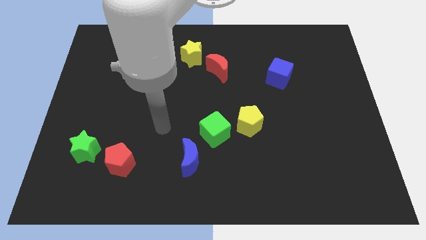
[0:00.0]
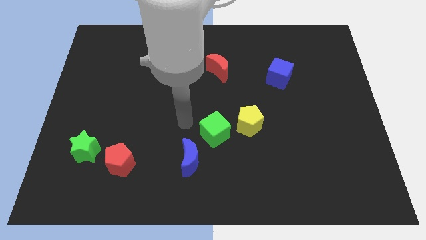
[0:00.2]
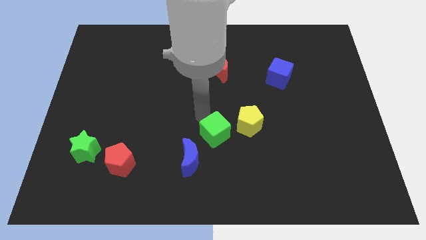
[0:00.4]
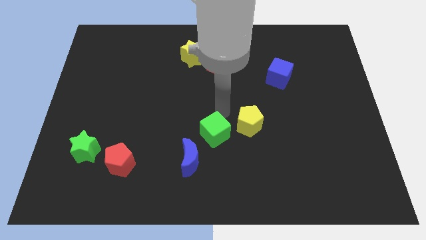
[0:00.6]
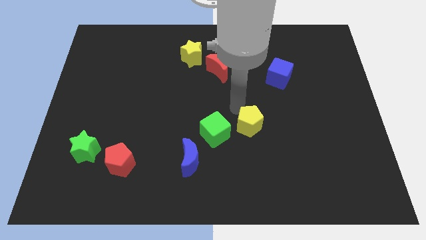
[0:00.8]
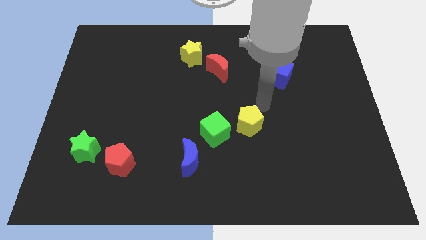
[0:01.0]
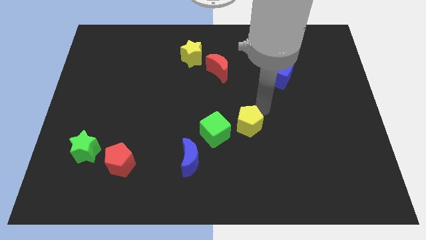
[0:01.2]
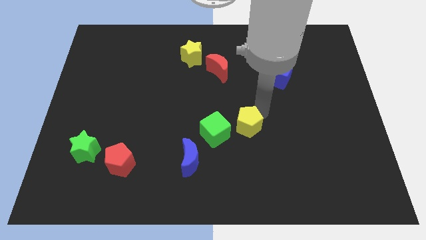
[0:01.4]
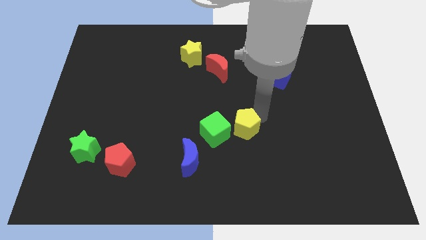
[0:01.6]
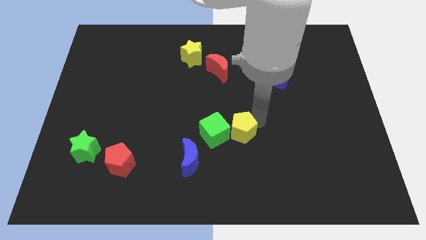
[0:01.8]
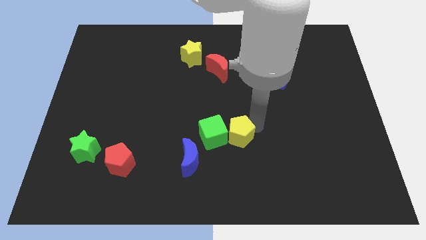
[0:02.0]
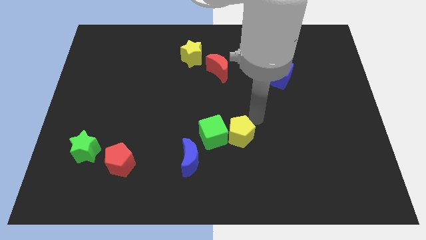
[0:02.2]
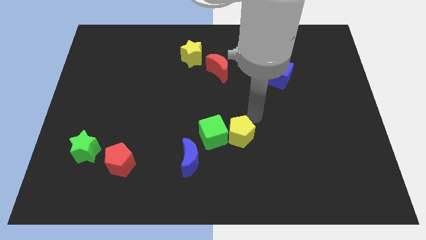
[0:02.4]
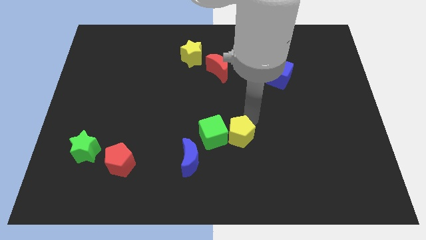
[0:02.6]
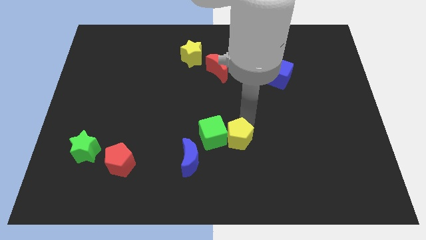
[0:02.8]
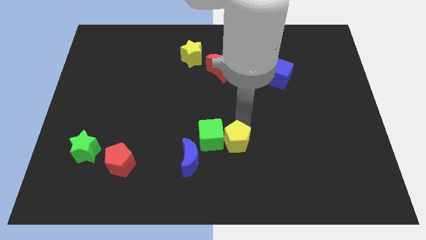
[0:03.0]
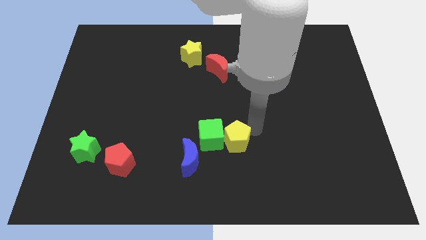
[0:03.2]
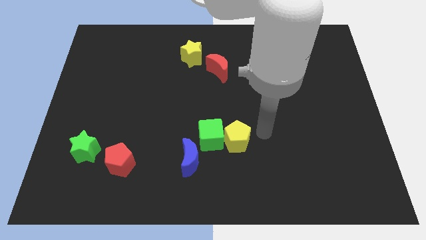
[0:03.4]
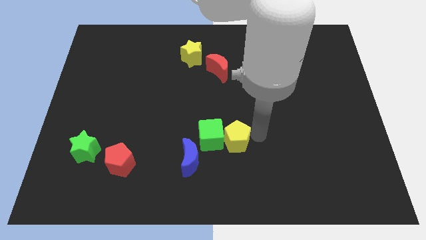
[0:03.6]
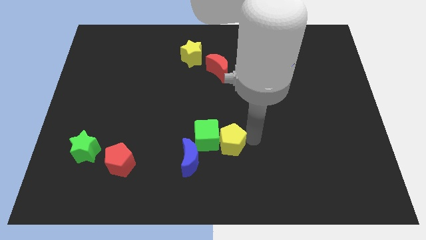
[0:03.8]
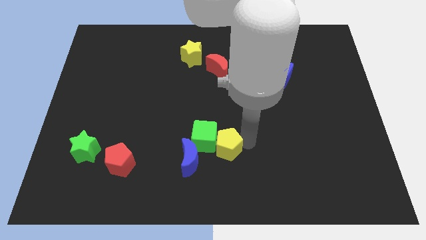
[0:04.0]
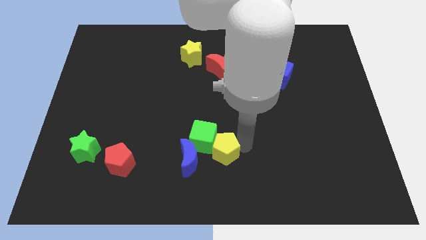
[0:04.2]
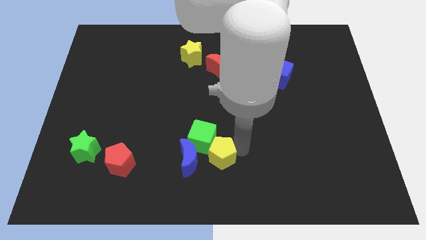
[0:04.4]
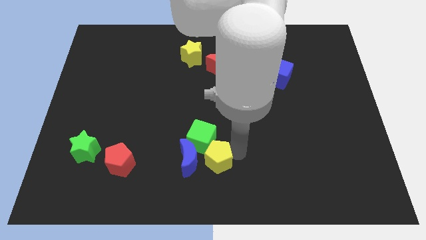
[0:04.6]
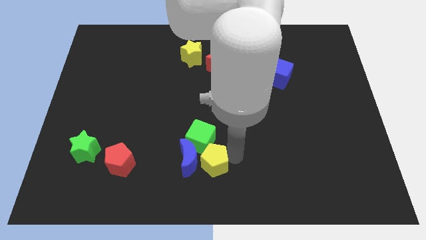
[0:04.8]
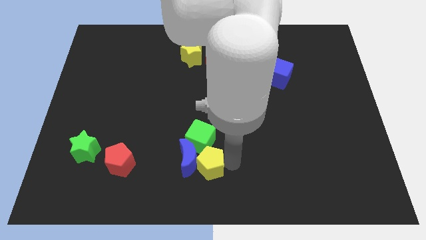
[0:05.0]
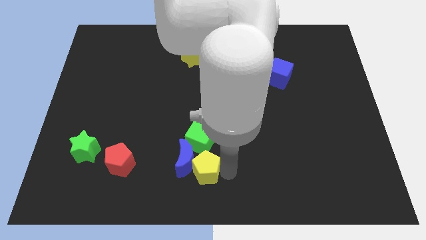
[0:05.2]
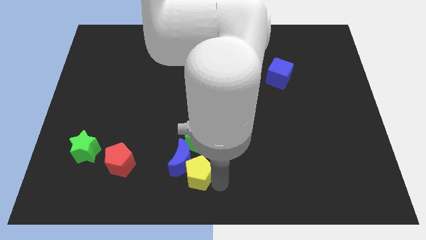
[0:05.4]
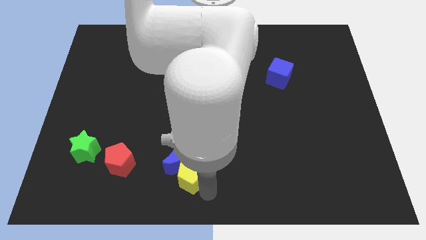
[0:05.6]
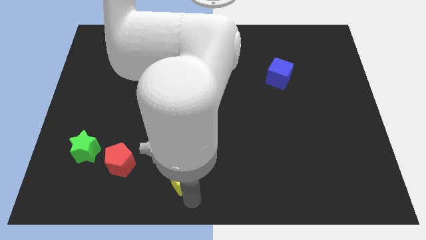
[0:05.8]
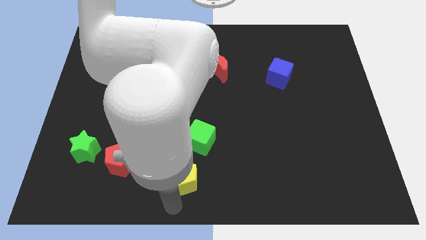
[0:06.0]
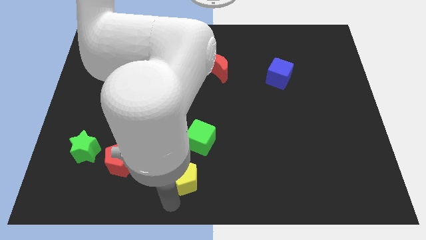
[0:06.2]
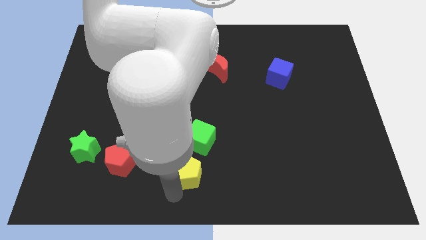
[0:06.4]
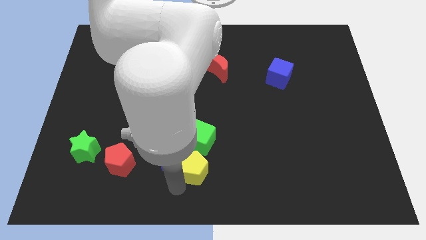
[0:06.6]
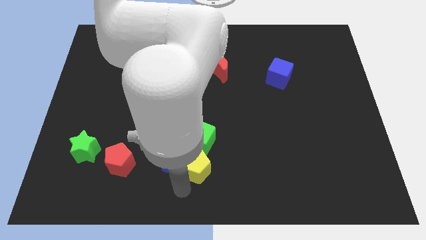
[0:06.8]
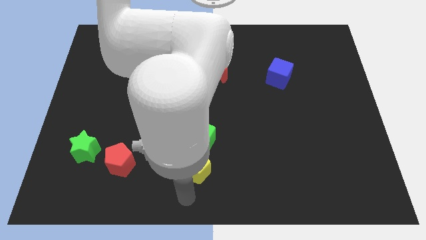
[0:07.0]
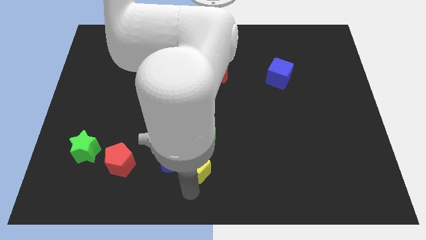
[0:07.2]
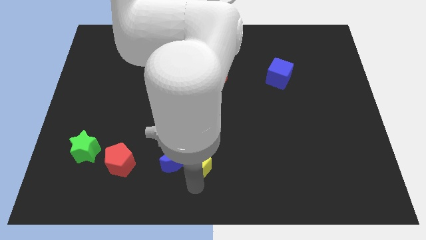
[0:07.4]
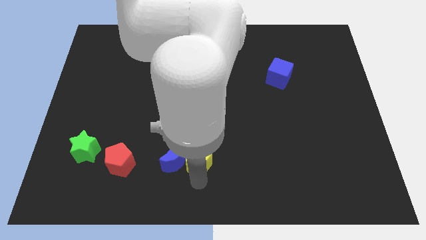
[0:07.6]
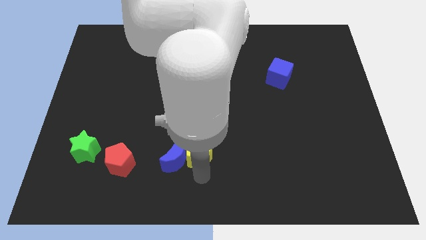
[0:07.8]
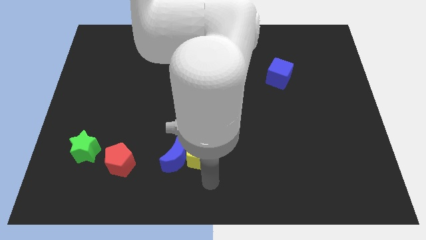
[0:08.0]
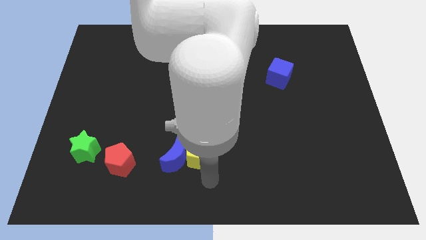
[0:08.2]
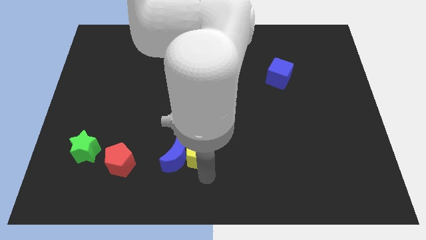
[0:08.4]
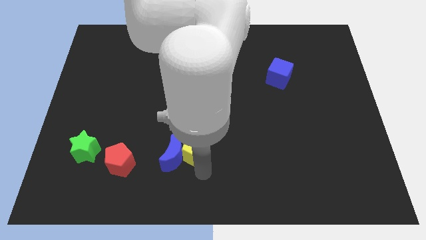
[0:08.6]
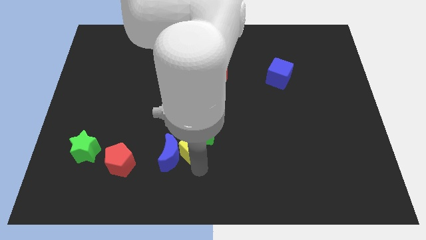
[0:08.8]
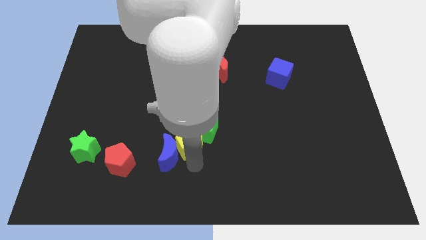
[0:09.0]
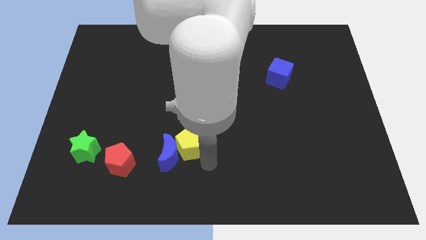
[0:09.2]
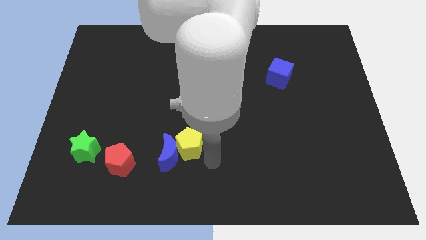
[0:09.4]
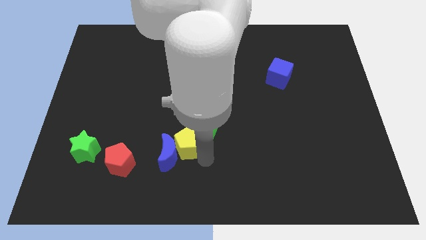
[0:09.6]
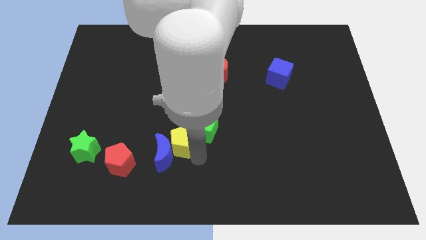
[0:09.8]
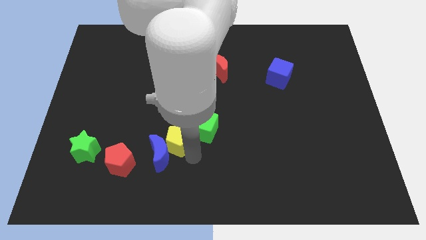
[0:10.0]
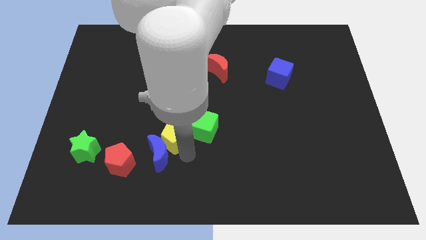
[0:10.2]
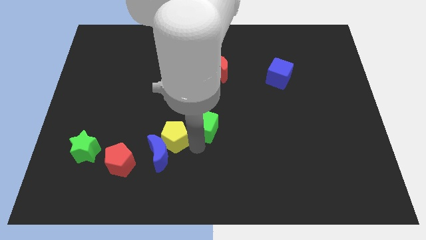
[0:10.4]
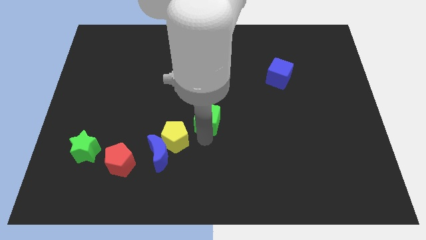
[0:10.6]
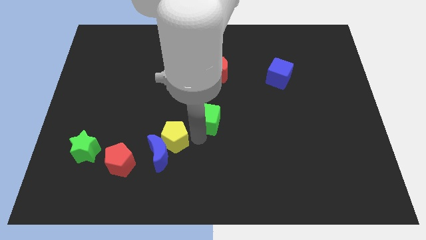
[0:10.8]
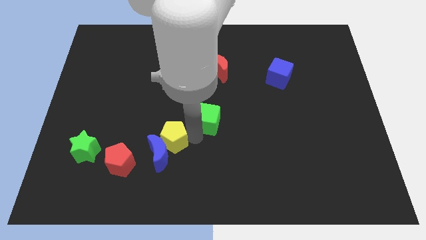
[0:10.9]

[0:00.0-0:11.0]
put the yellow pentagon diagonally up and to the right of the red pentagon

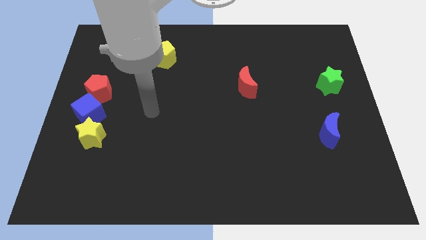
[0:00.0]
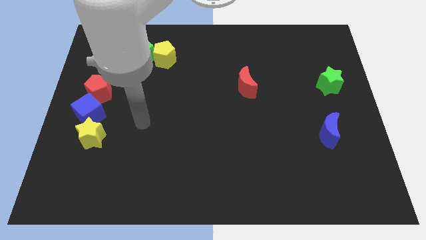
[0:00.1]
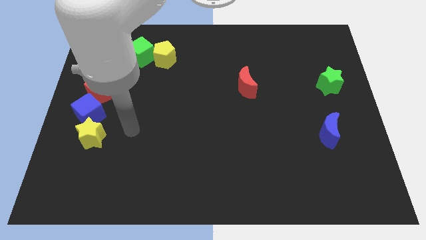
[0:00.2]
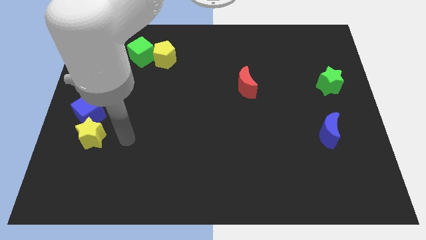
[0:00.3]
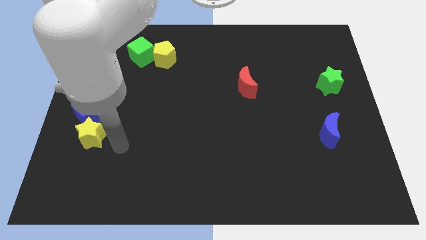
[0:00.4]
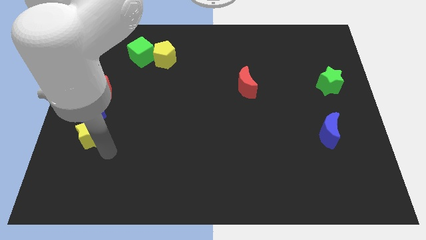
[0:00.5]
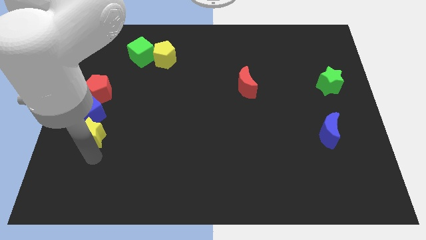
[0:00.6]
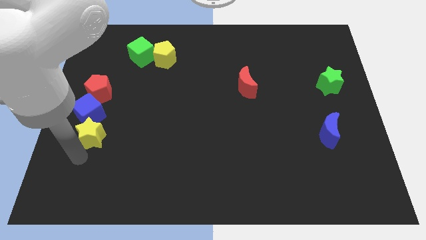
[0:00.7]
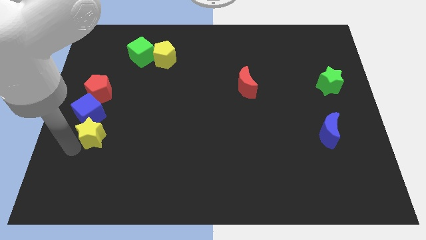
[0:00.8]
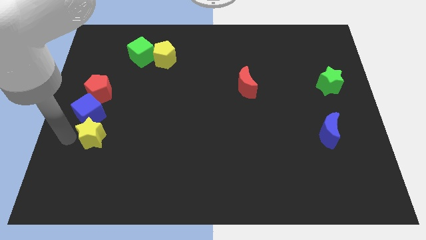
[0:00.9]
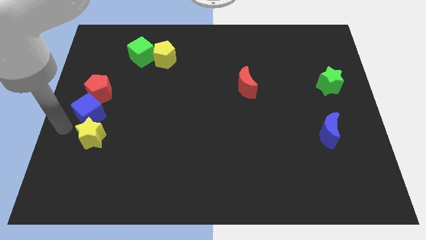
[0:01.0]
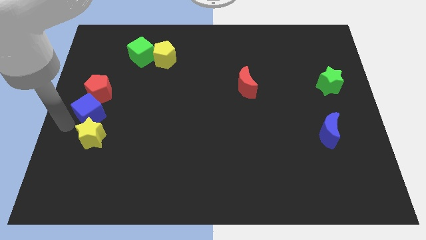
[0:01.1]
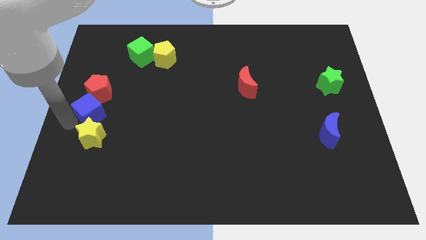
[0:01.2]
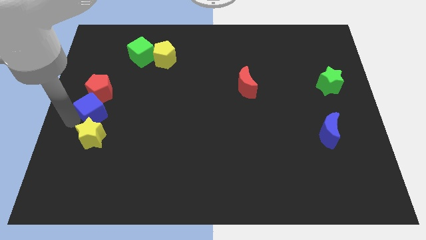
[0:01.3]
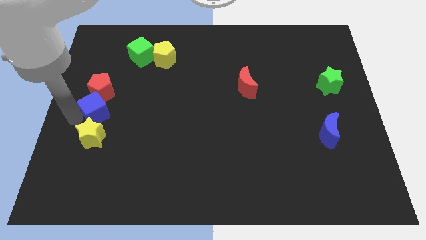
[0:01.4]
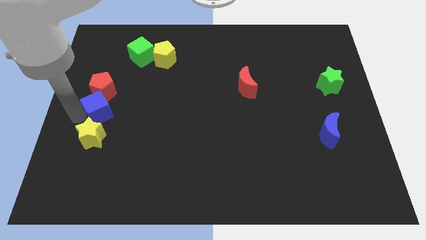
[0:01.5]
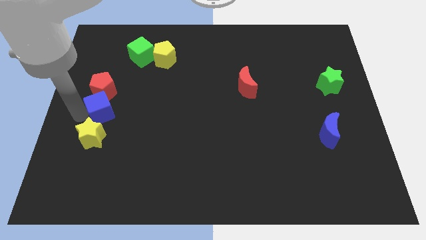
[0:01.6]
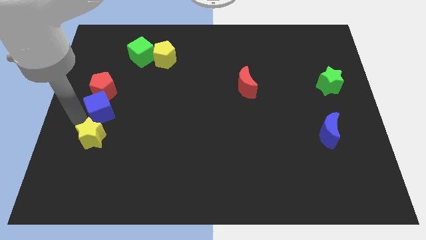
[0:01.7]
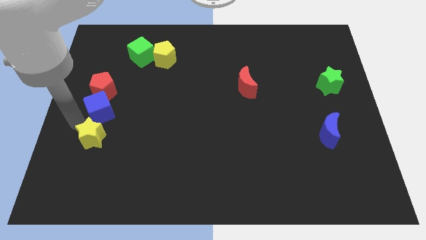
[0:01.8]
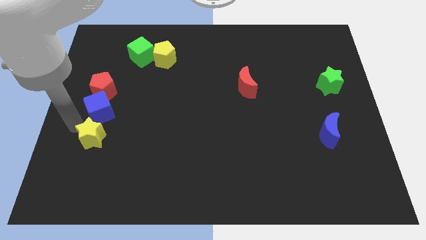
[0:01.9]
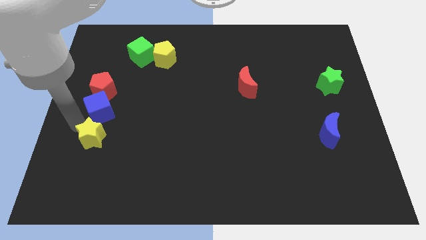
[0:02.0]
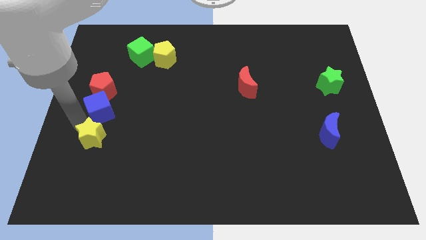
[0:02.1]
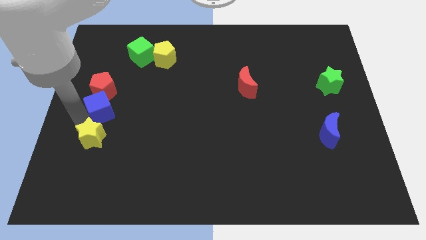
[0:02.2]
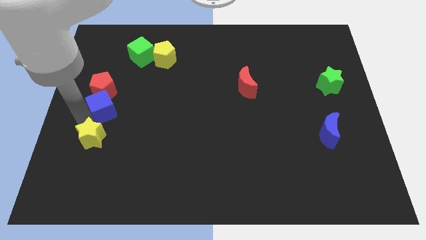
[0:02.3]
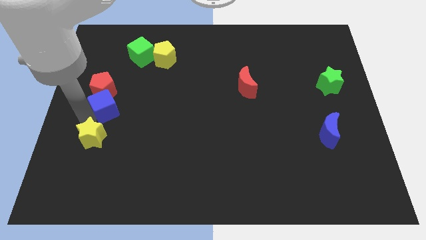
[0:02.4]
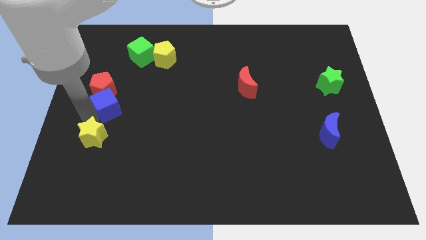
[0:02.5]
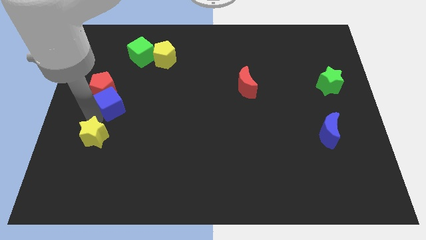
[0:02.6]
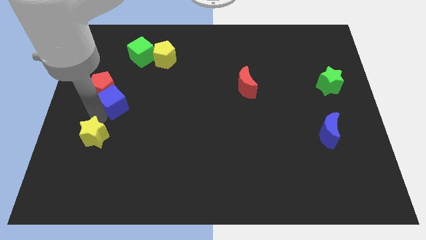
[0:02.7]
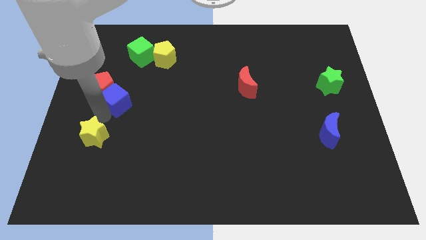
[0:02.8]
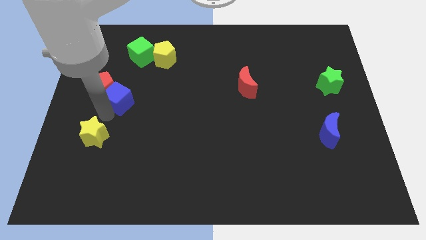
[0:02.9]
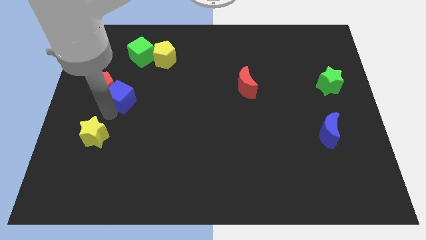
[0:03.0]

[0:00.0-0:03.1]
move the blue cube to the bottom of the green cube
